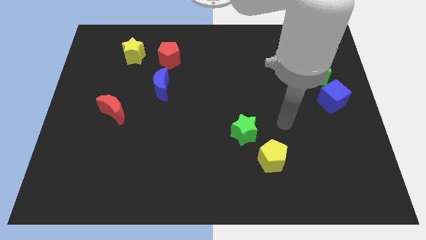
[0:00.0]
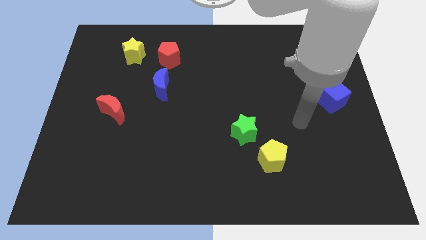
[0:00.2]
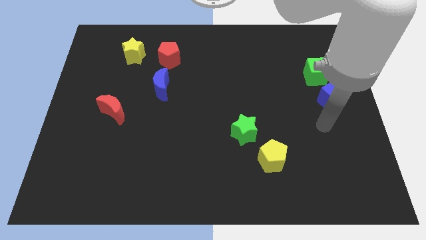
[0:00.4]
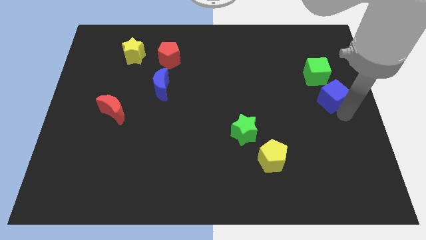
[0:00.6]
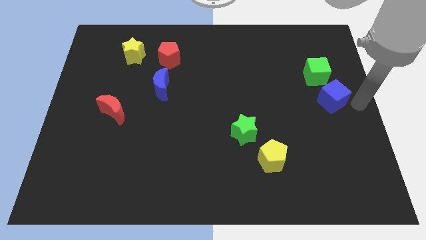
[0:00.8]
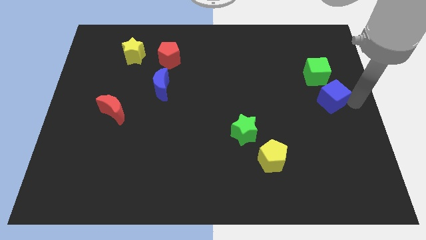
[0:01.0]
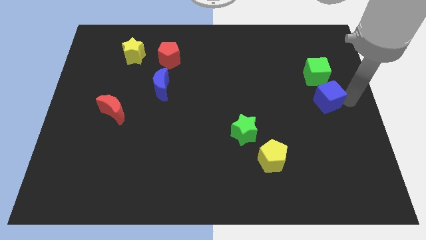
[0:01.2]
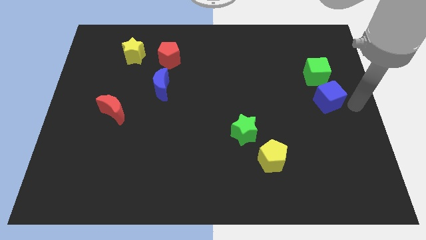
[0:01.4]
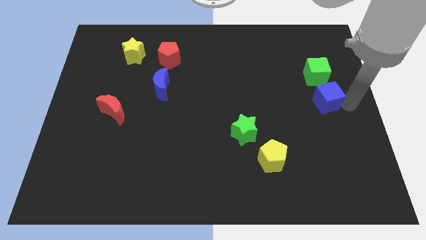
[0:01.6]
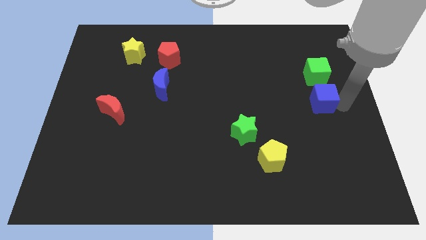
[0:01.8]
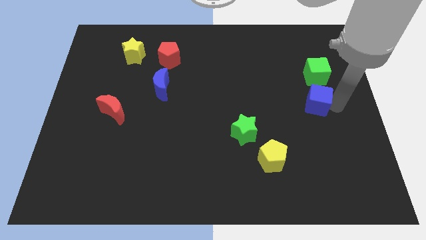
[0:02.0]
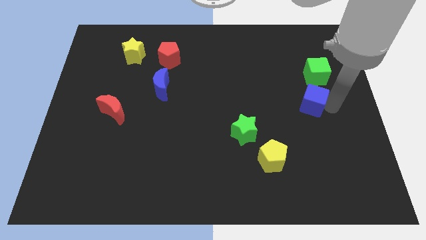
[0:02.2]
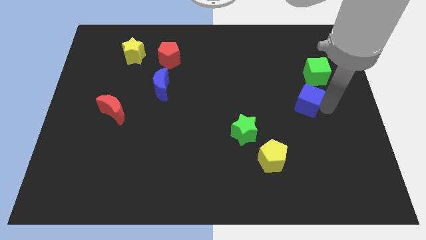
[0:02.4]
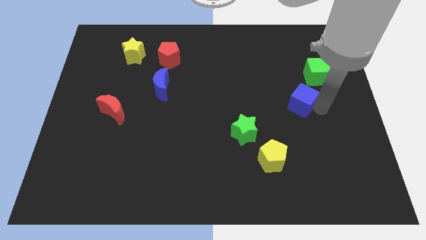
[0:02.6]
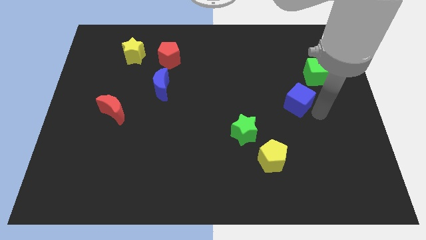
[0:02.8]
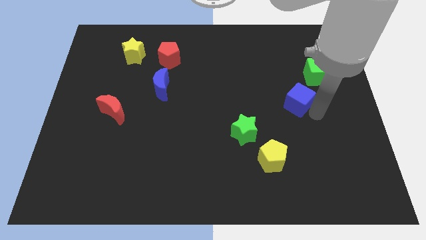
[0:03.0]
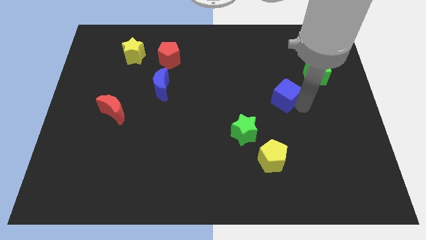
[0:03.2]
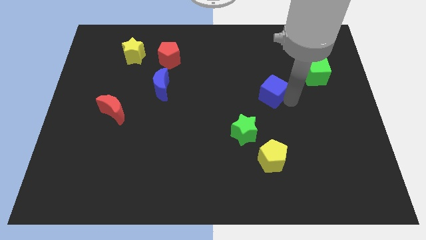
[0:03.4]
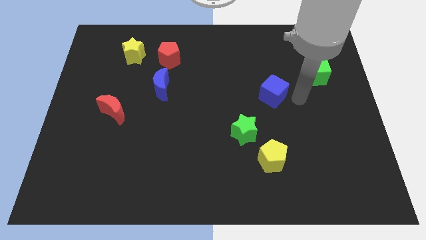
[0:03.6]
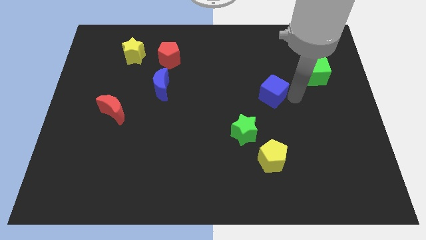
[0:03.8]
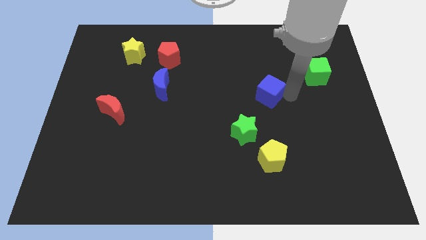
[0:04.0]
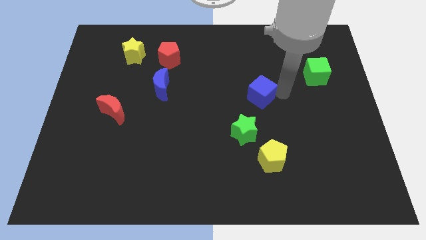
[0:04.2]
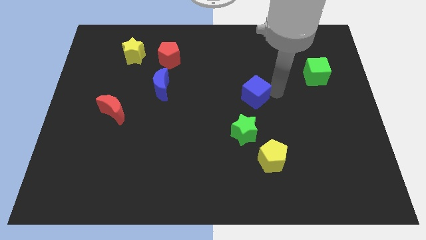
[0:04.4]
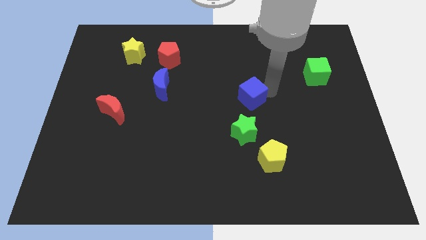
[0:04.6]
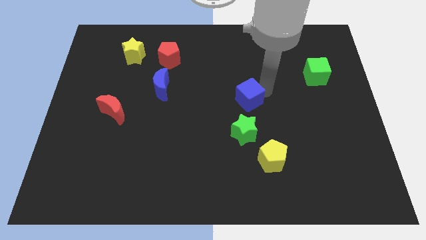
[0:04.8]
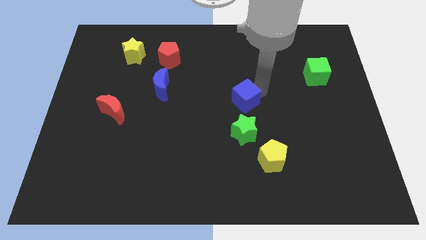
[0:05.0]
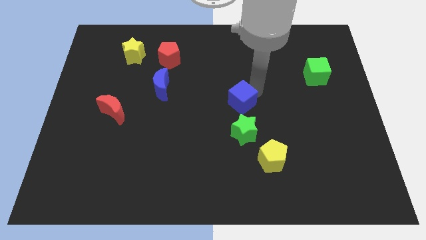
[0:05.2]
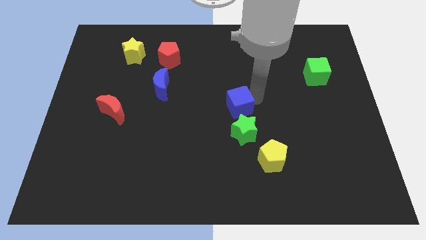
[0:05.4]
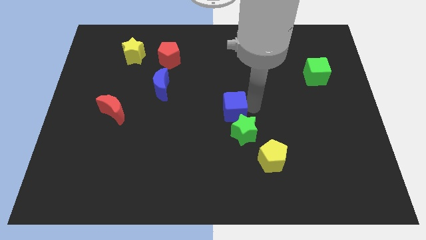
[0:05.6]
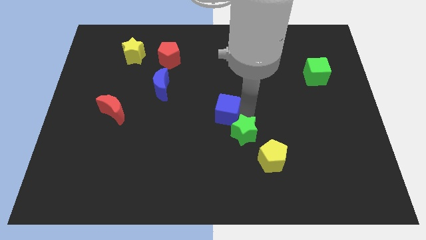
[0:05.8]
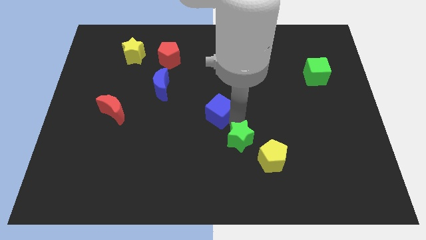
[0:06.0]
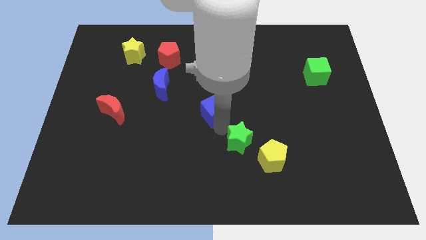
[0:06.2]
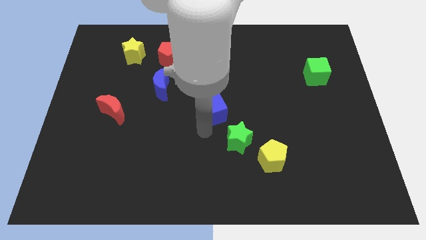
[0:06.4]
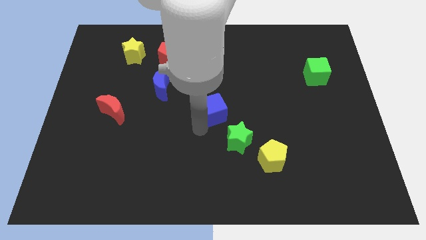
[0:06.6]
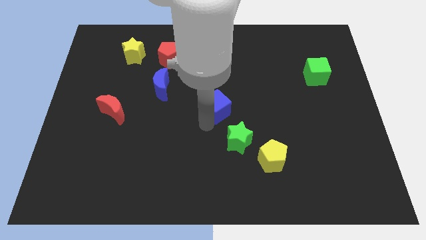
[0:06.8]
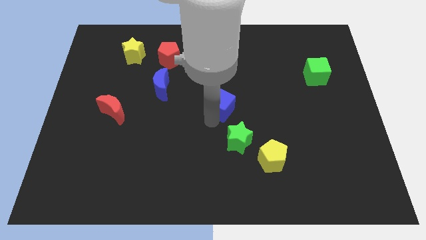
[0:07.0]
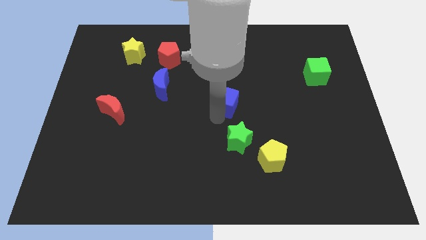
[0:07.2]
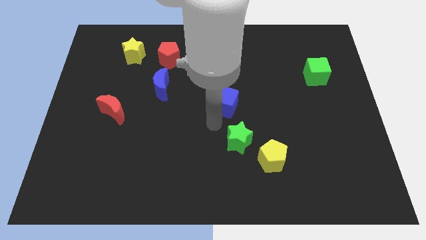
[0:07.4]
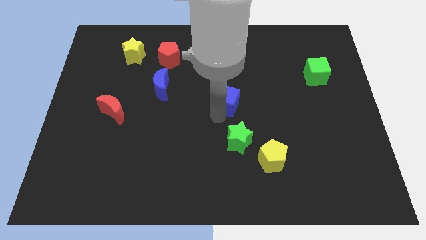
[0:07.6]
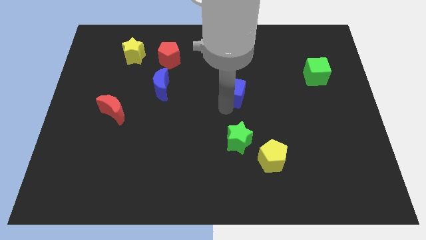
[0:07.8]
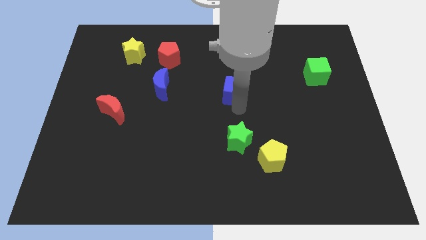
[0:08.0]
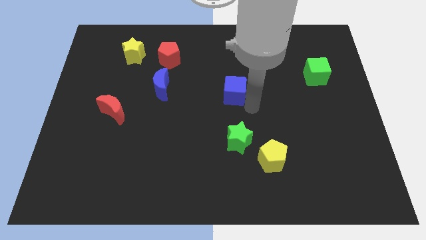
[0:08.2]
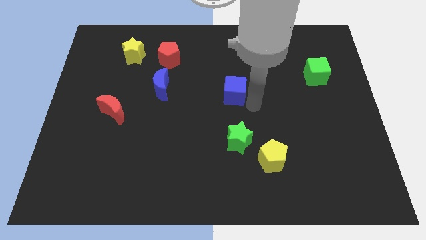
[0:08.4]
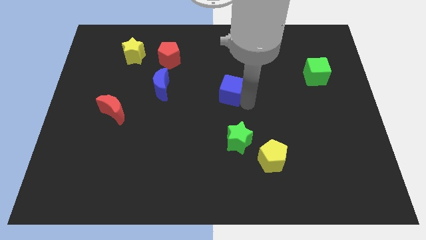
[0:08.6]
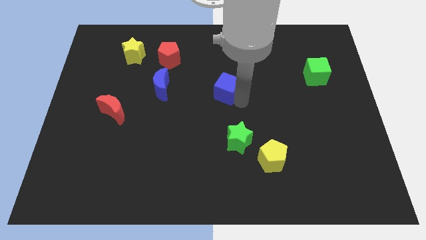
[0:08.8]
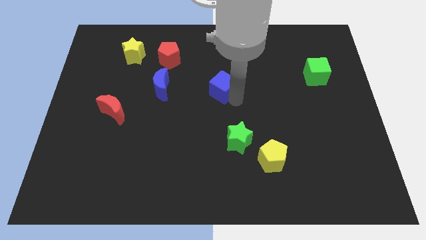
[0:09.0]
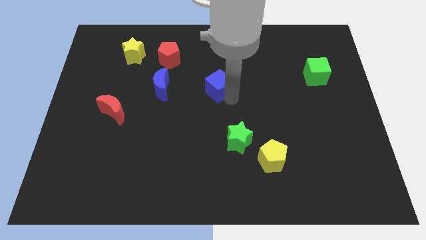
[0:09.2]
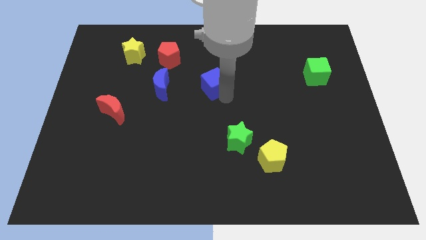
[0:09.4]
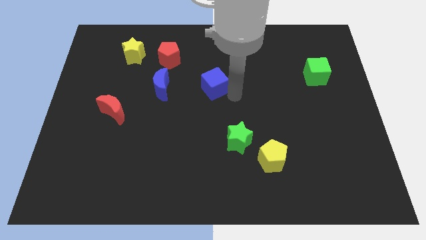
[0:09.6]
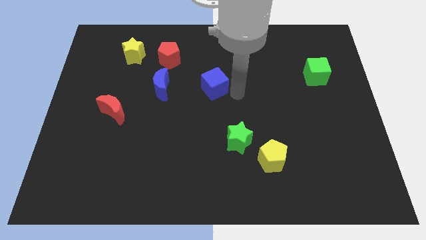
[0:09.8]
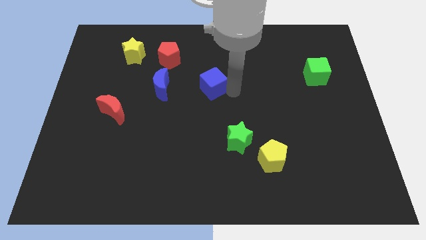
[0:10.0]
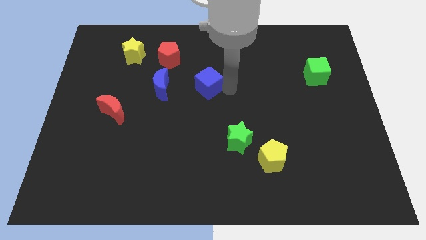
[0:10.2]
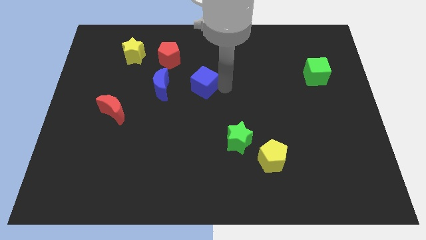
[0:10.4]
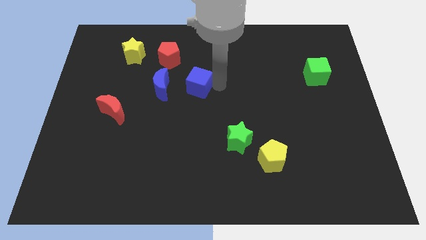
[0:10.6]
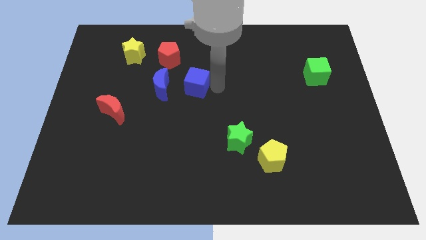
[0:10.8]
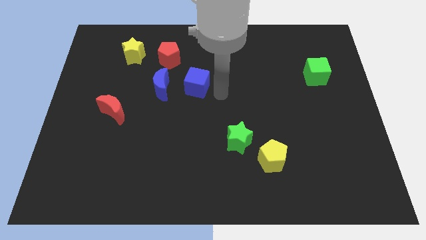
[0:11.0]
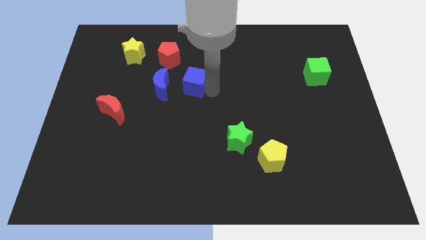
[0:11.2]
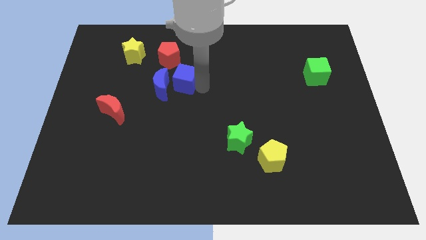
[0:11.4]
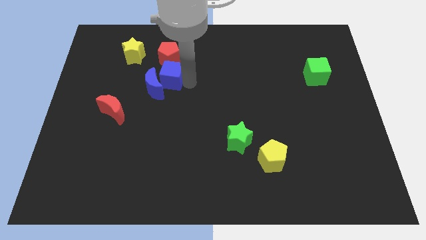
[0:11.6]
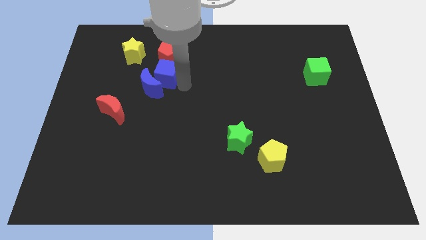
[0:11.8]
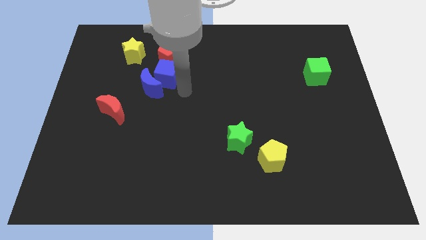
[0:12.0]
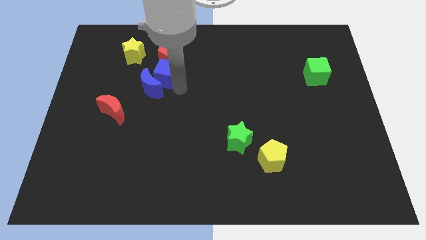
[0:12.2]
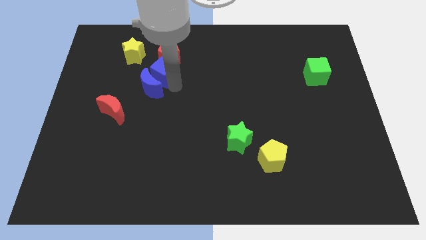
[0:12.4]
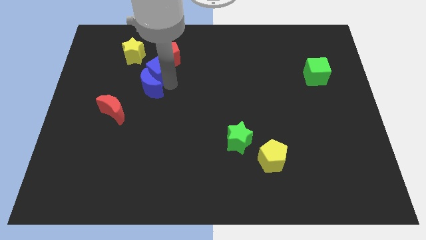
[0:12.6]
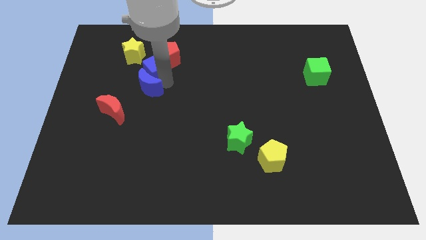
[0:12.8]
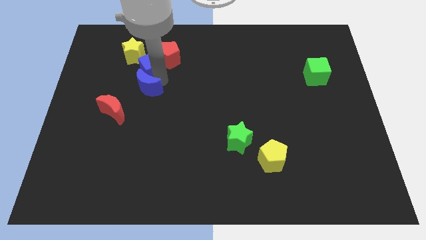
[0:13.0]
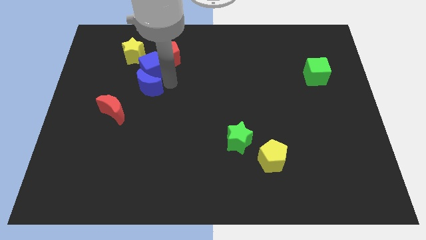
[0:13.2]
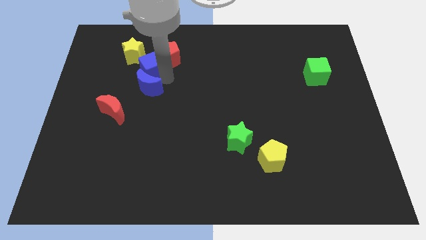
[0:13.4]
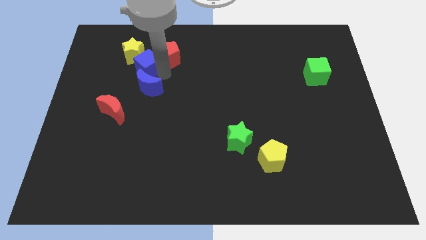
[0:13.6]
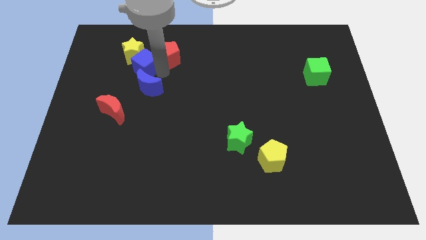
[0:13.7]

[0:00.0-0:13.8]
move the blue cube close to the yellow star
